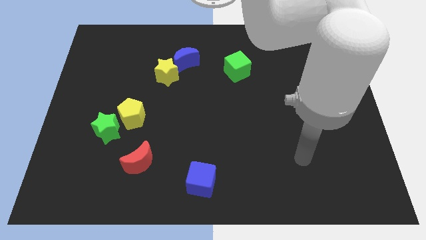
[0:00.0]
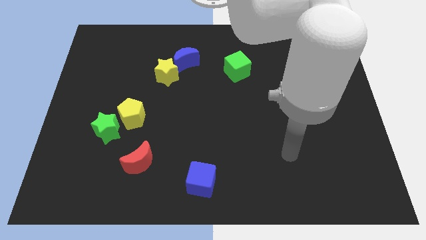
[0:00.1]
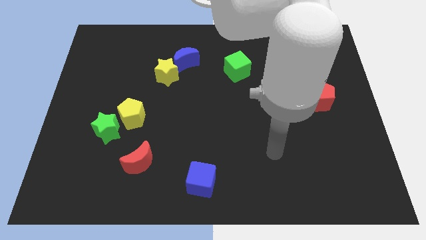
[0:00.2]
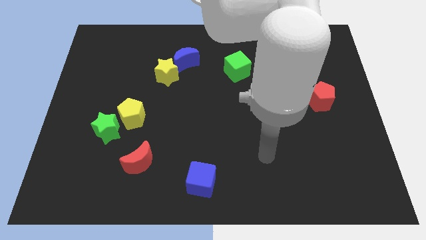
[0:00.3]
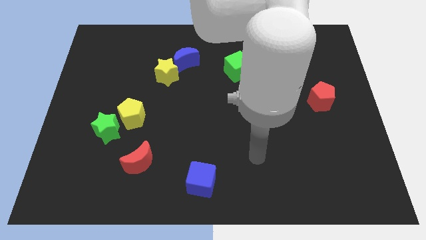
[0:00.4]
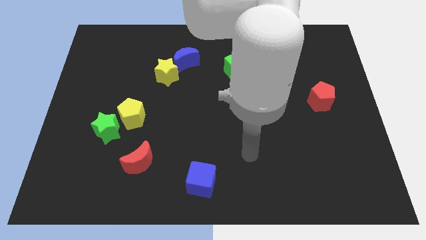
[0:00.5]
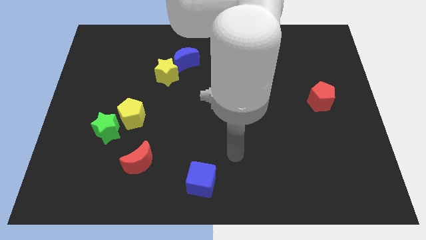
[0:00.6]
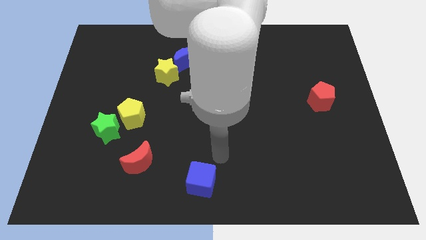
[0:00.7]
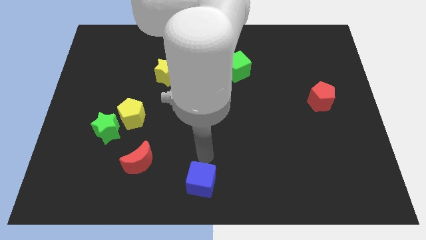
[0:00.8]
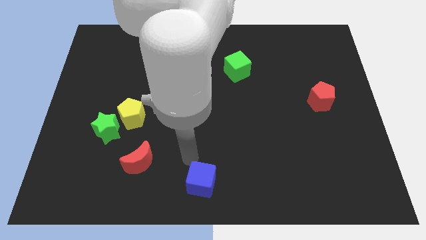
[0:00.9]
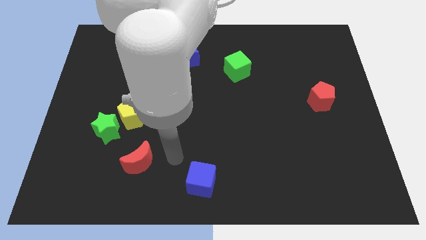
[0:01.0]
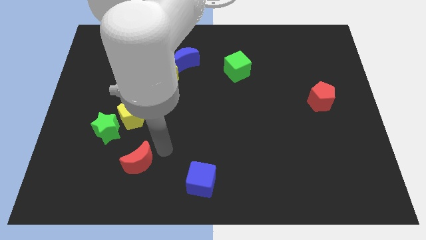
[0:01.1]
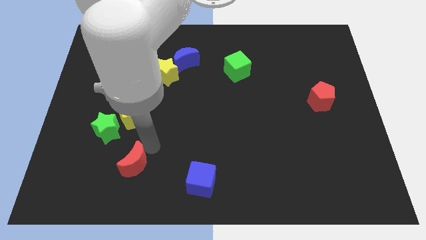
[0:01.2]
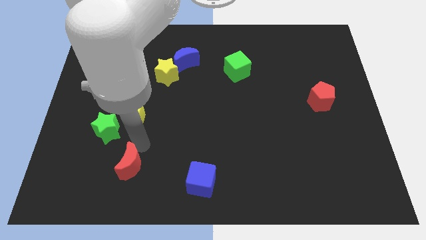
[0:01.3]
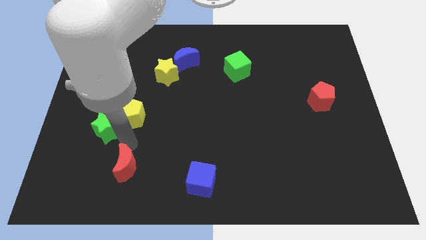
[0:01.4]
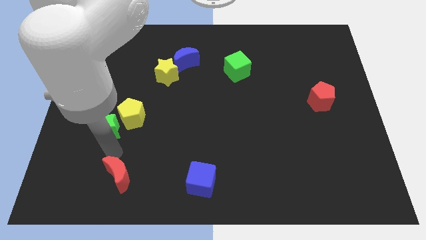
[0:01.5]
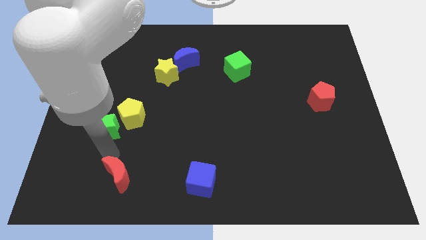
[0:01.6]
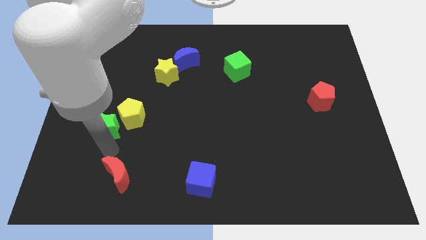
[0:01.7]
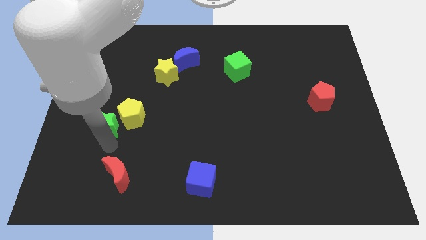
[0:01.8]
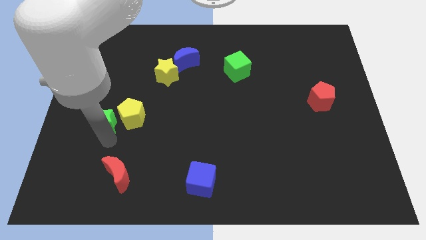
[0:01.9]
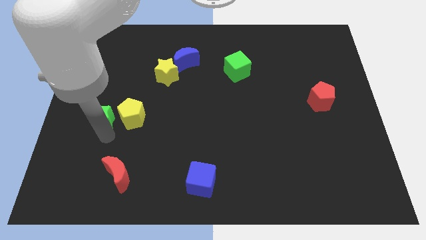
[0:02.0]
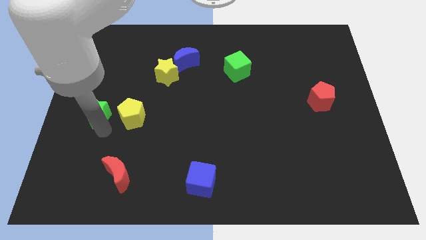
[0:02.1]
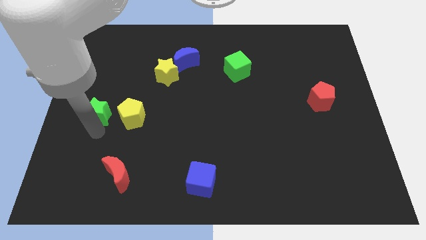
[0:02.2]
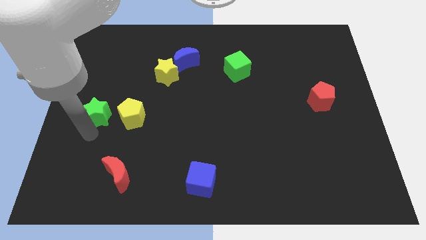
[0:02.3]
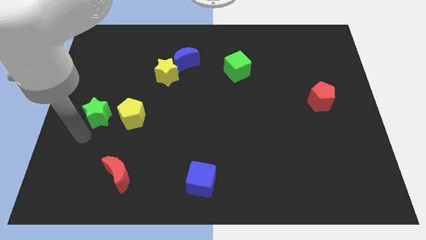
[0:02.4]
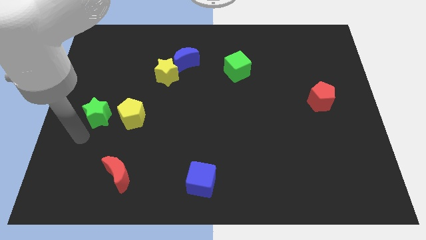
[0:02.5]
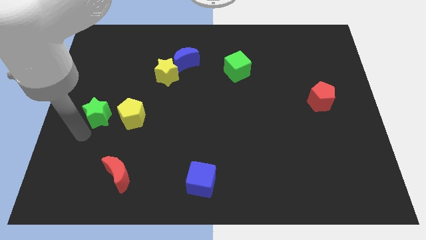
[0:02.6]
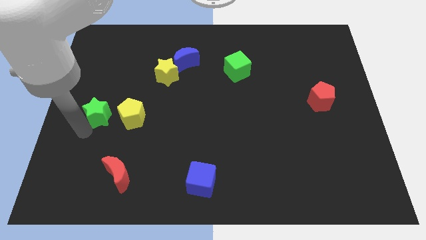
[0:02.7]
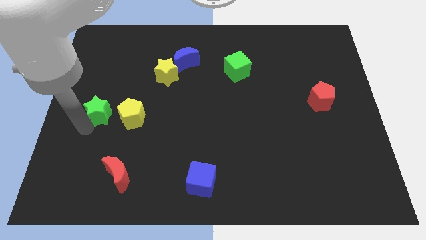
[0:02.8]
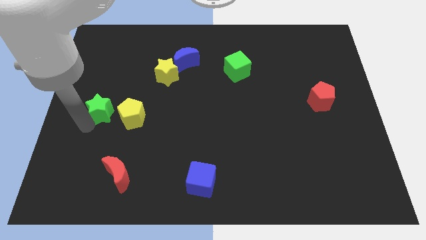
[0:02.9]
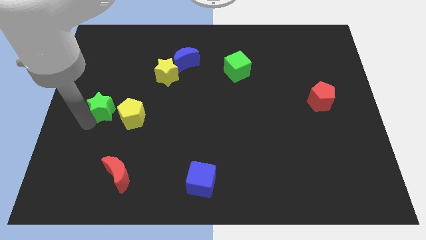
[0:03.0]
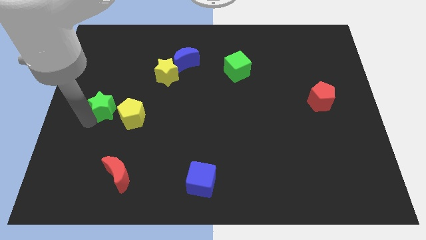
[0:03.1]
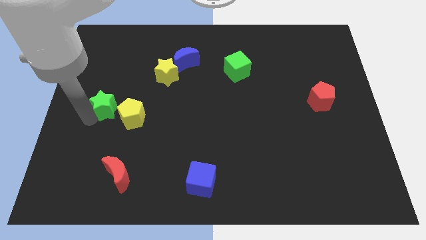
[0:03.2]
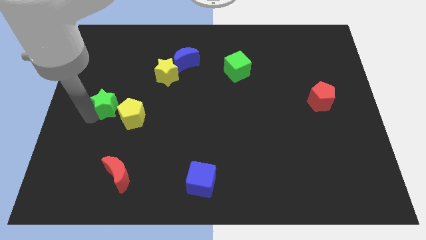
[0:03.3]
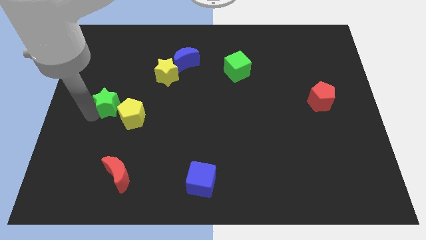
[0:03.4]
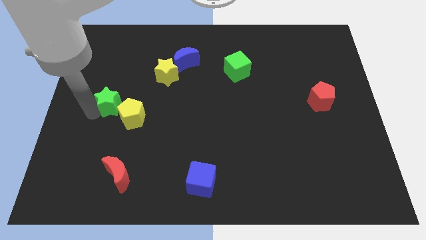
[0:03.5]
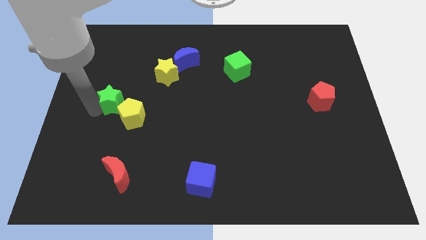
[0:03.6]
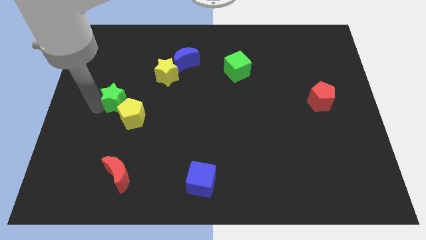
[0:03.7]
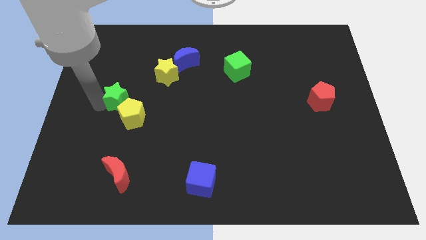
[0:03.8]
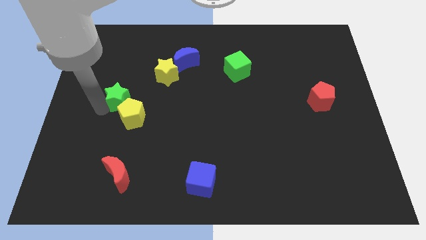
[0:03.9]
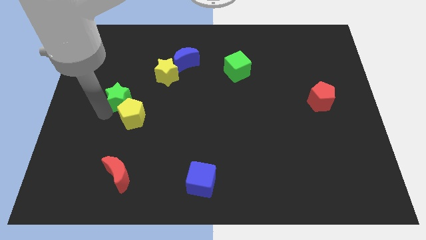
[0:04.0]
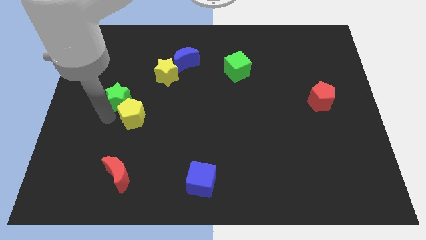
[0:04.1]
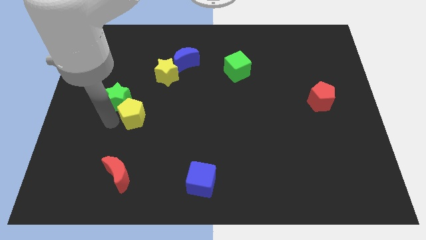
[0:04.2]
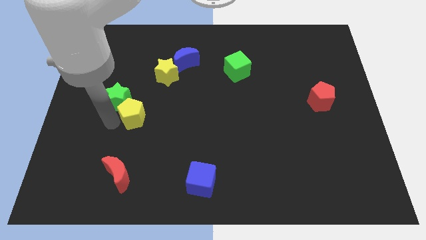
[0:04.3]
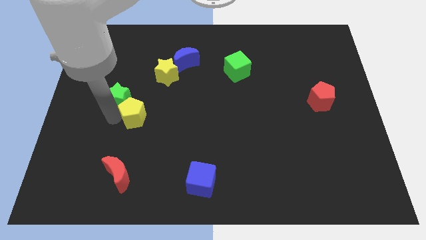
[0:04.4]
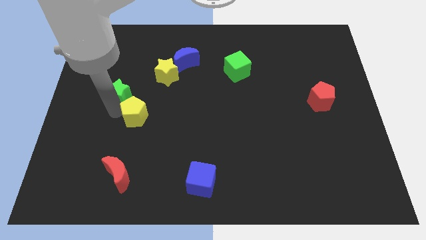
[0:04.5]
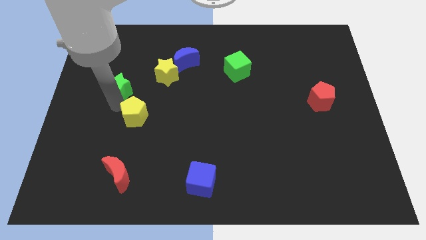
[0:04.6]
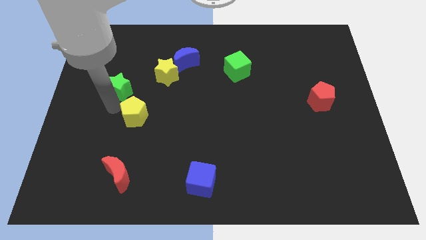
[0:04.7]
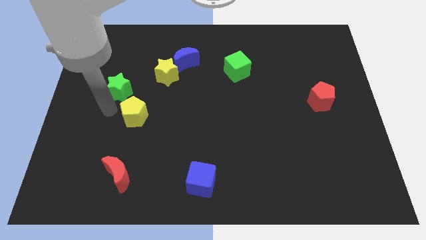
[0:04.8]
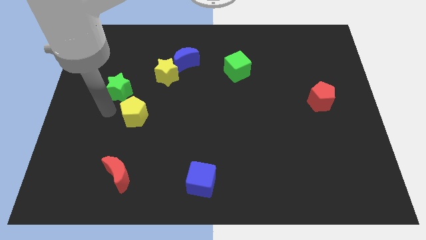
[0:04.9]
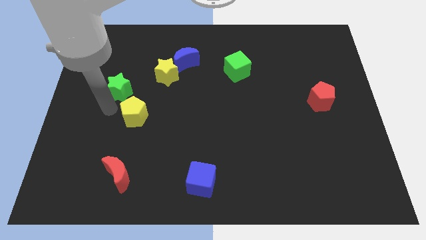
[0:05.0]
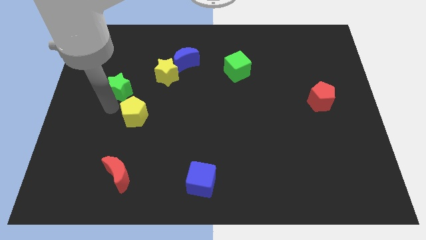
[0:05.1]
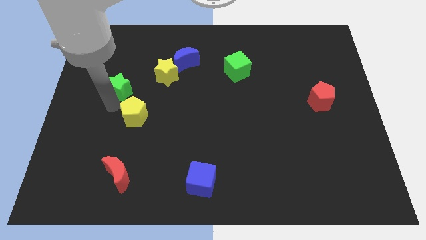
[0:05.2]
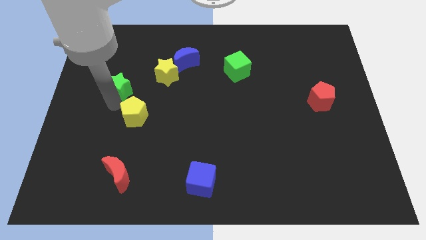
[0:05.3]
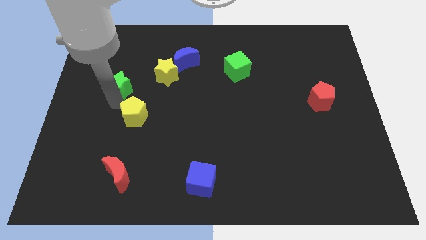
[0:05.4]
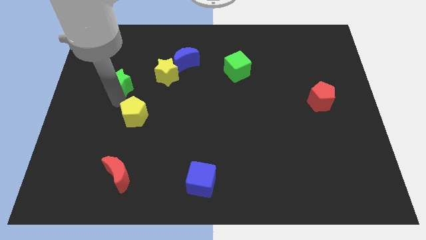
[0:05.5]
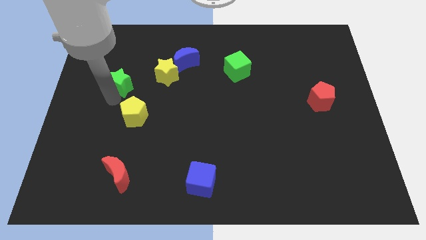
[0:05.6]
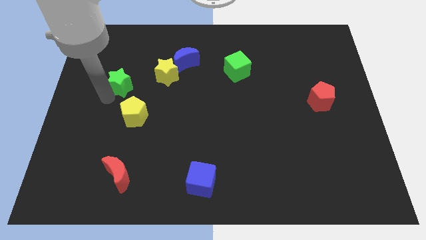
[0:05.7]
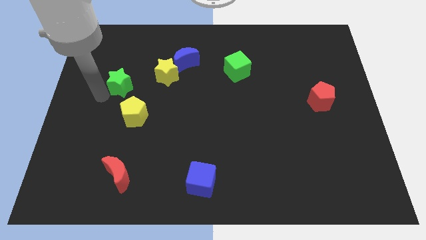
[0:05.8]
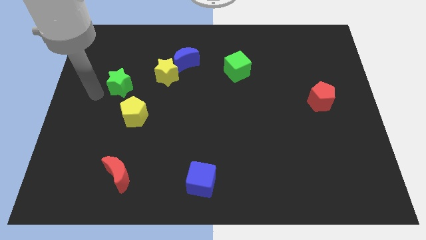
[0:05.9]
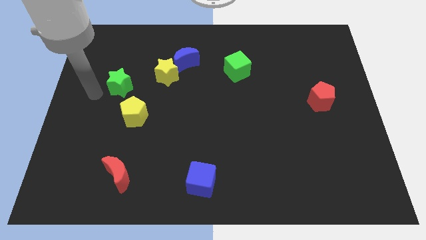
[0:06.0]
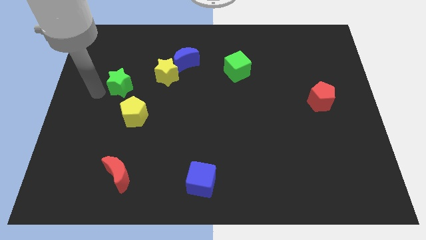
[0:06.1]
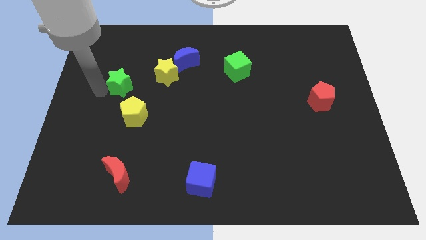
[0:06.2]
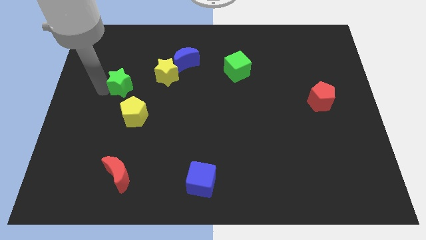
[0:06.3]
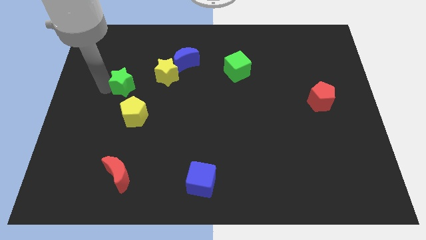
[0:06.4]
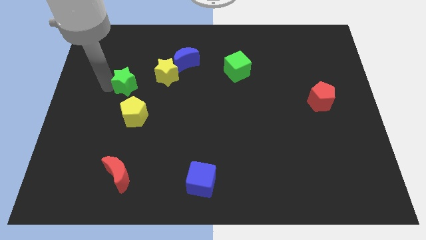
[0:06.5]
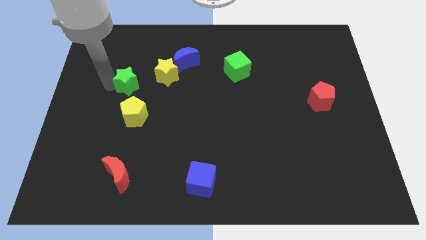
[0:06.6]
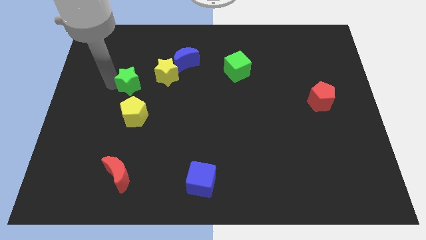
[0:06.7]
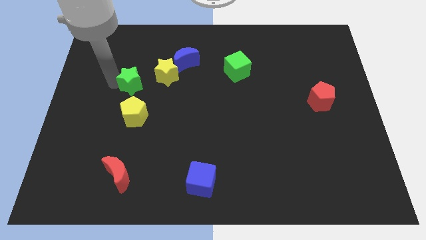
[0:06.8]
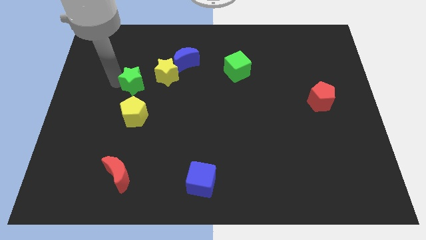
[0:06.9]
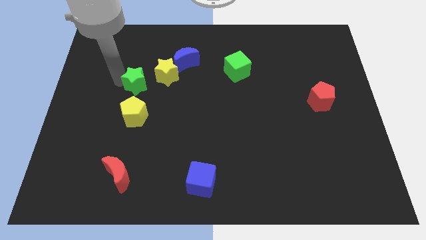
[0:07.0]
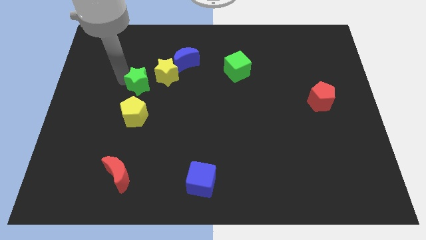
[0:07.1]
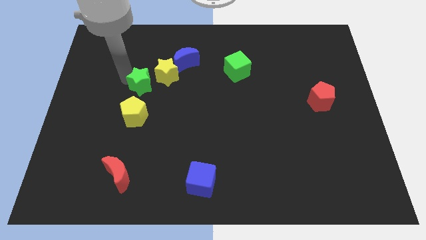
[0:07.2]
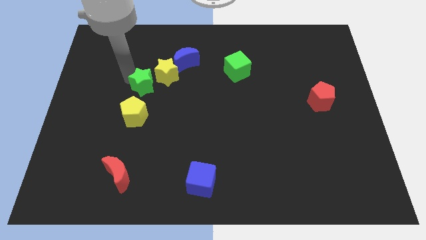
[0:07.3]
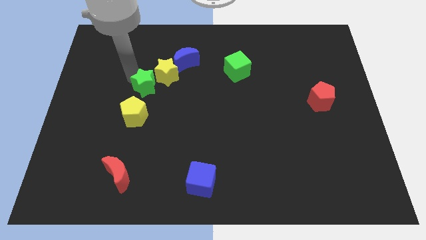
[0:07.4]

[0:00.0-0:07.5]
push the green star close to the yellow star
